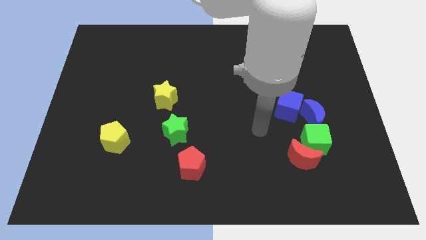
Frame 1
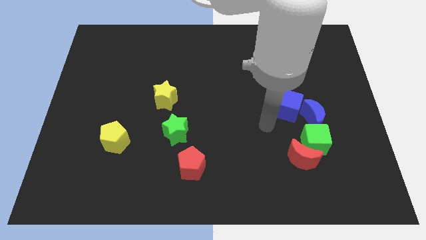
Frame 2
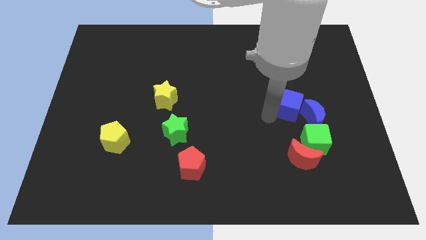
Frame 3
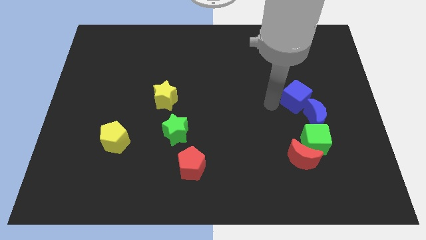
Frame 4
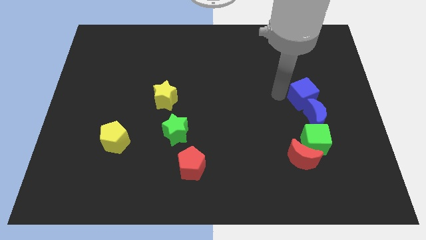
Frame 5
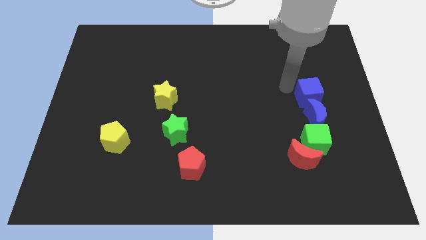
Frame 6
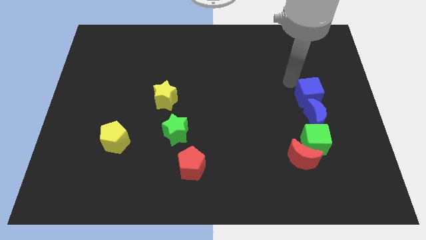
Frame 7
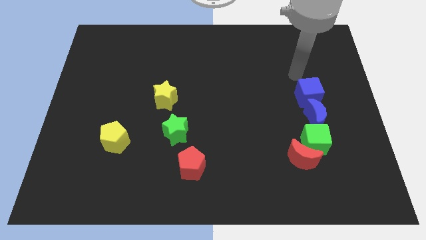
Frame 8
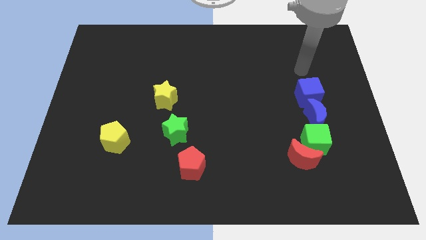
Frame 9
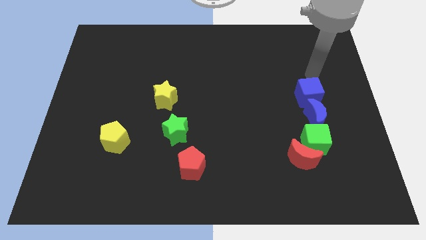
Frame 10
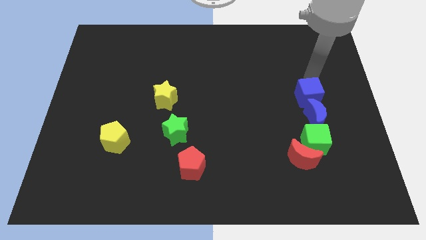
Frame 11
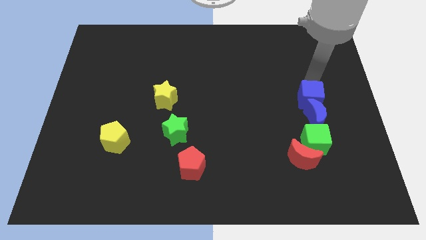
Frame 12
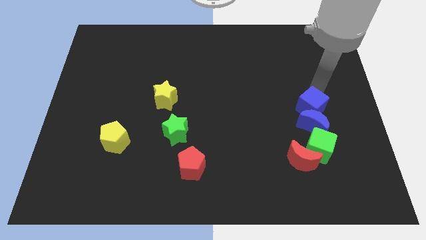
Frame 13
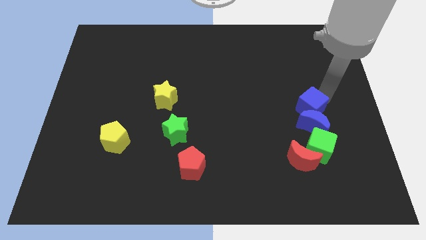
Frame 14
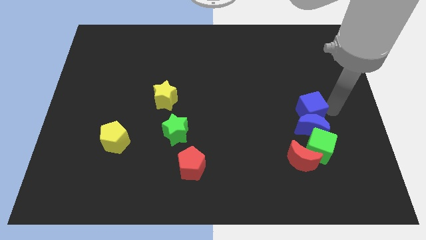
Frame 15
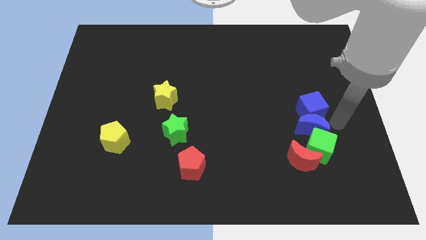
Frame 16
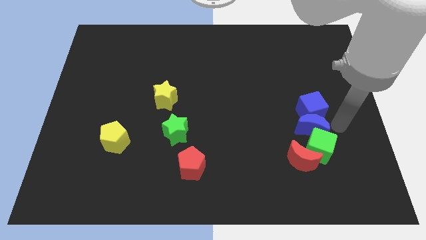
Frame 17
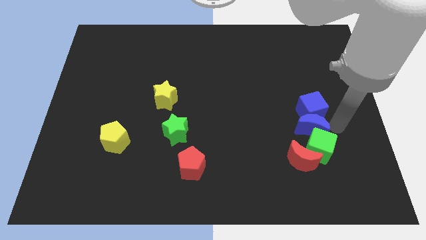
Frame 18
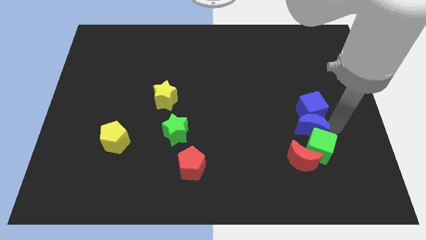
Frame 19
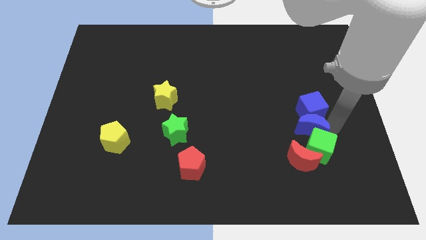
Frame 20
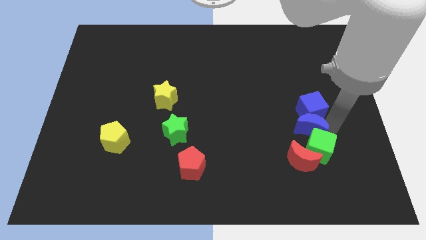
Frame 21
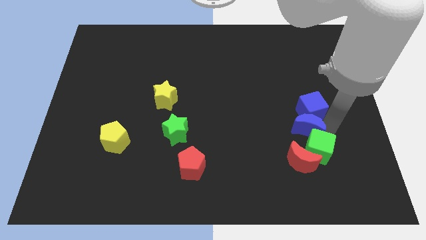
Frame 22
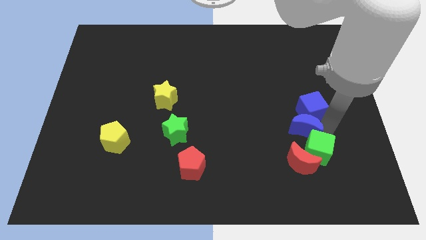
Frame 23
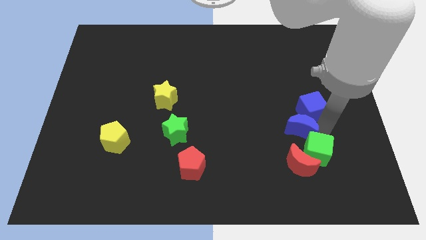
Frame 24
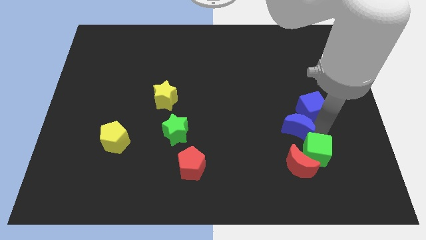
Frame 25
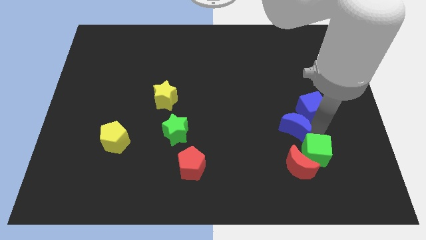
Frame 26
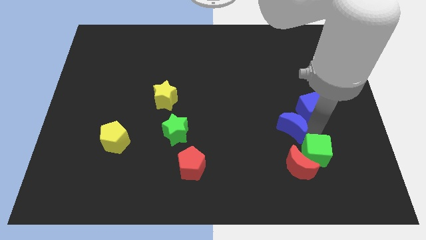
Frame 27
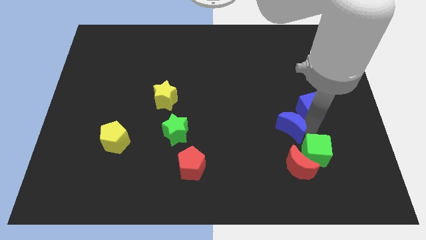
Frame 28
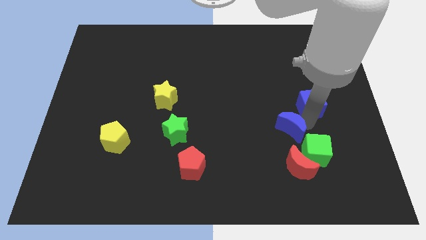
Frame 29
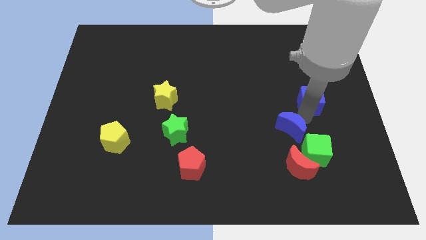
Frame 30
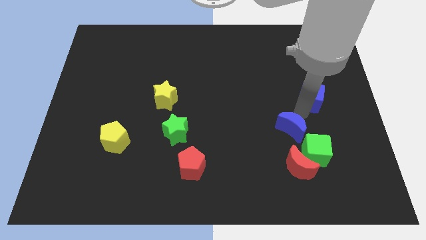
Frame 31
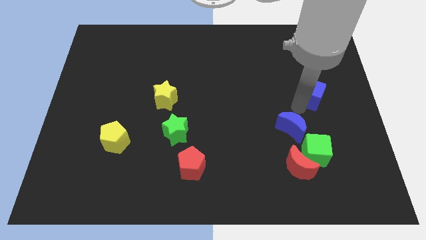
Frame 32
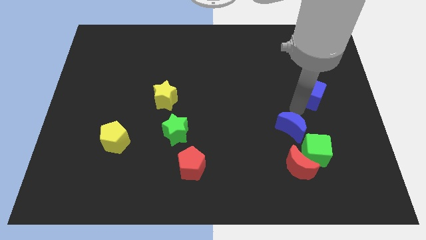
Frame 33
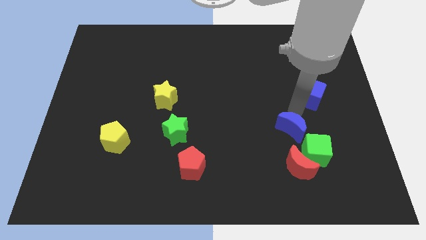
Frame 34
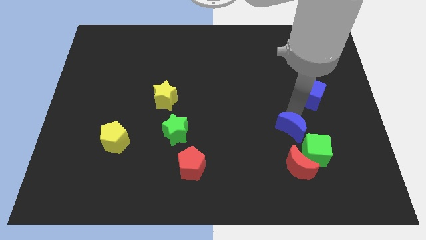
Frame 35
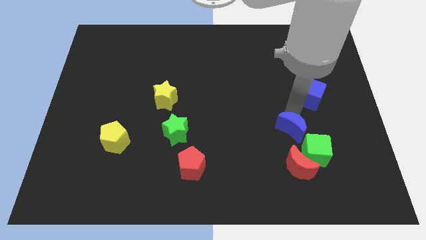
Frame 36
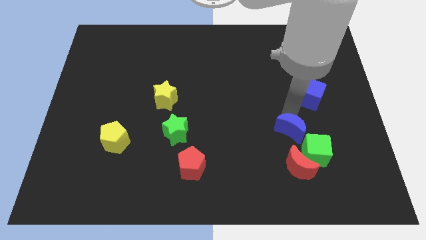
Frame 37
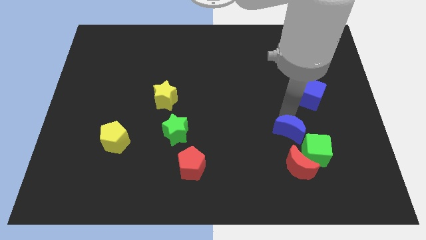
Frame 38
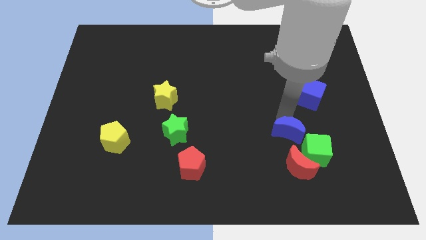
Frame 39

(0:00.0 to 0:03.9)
move the blue moon down and then to the left a little

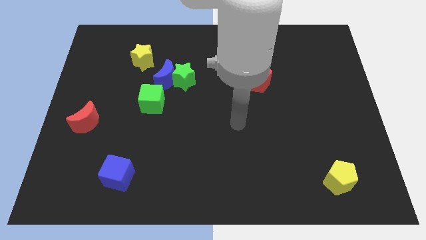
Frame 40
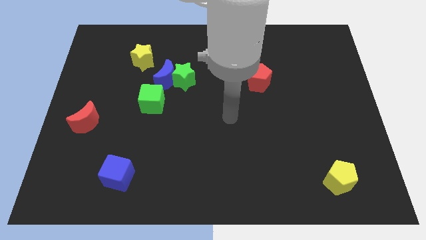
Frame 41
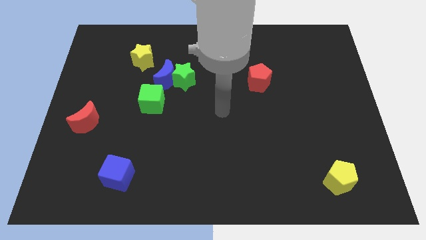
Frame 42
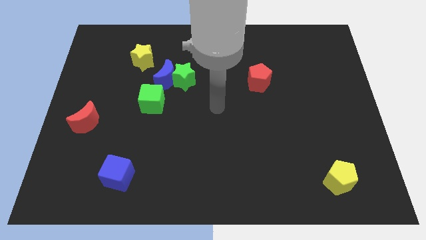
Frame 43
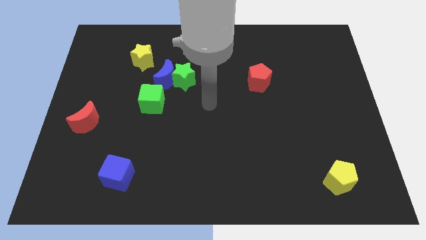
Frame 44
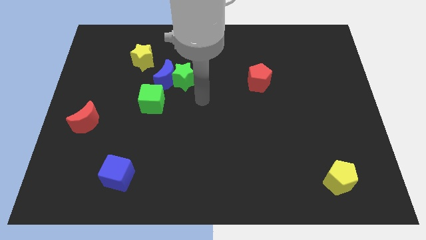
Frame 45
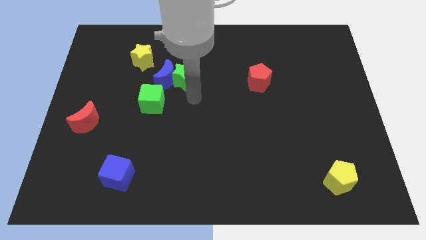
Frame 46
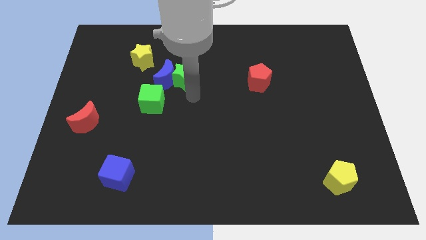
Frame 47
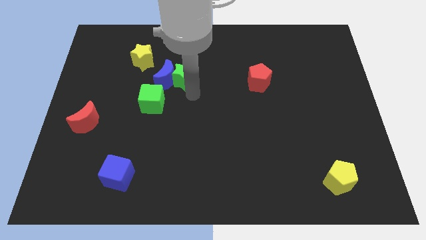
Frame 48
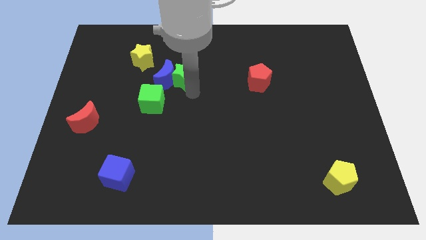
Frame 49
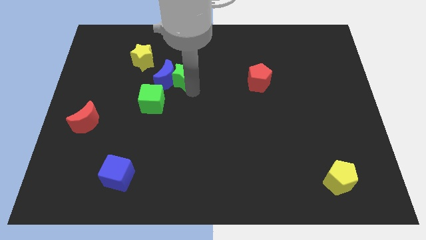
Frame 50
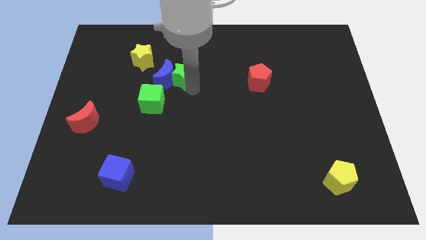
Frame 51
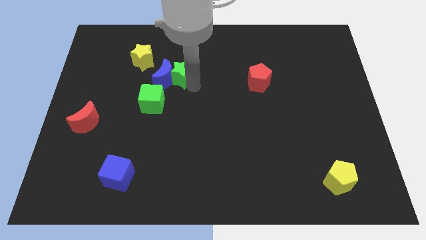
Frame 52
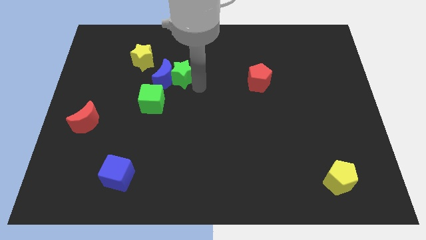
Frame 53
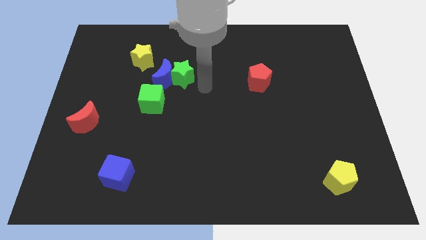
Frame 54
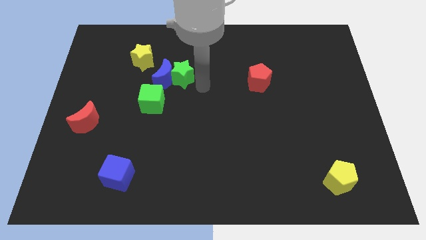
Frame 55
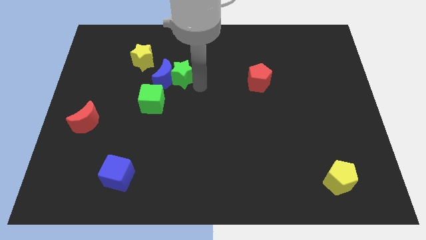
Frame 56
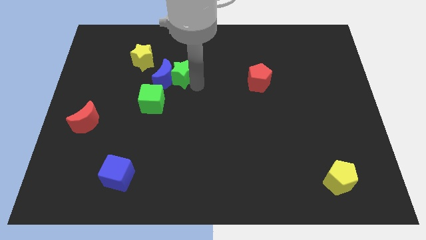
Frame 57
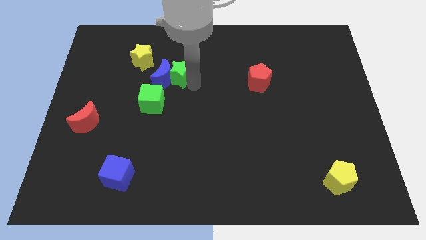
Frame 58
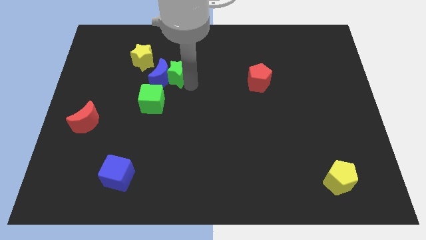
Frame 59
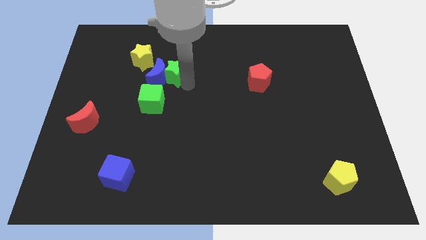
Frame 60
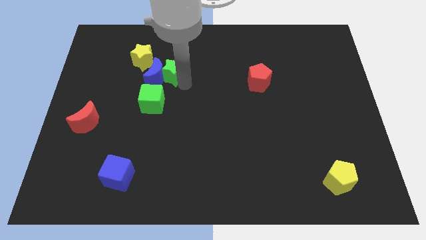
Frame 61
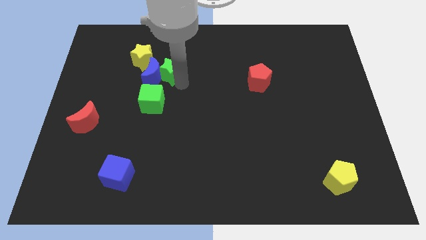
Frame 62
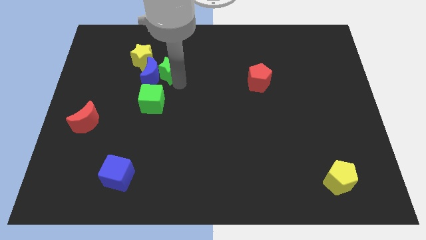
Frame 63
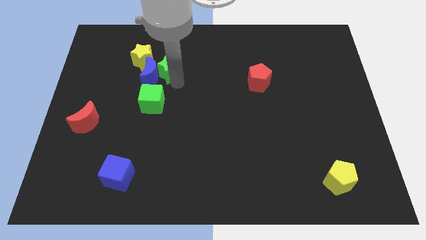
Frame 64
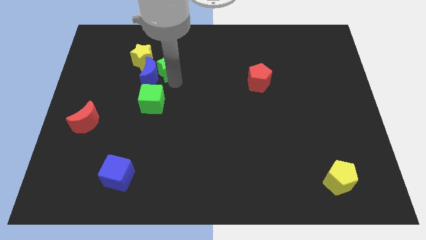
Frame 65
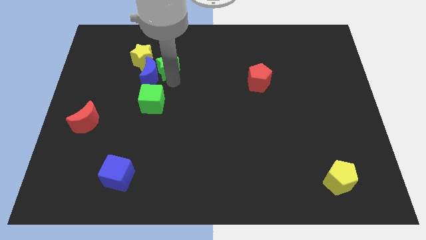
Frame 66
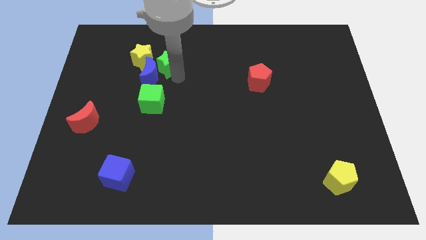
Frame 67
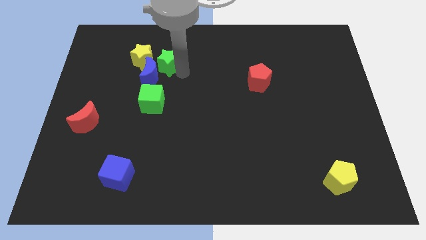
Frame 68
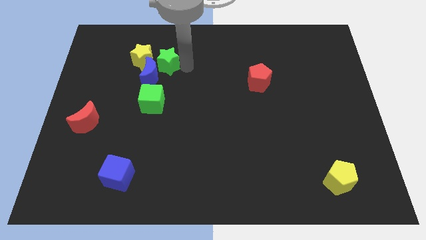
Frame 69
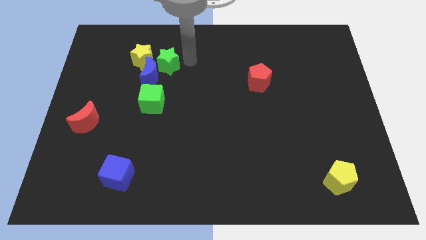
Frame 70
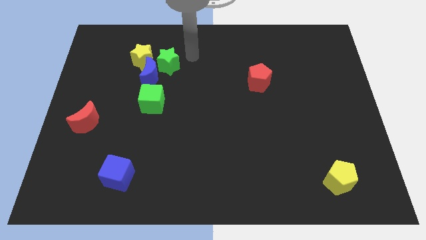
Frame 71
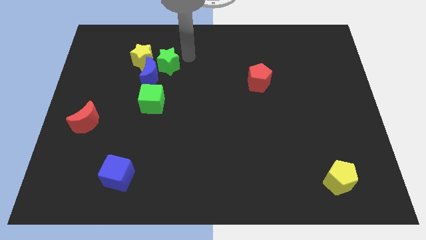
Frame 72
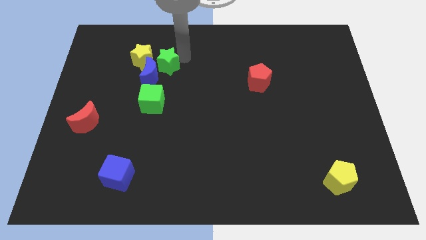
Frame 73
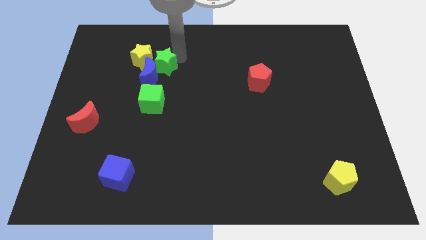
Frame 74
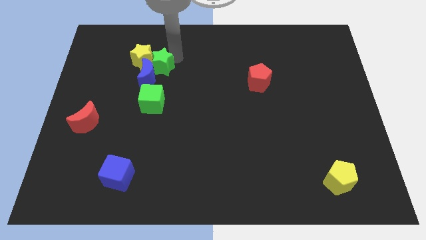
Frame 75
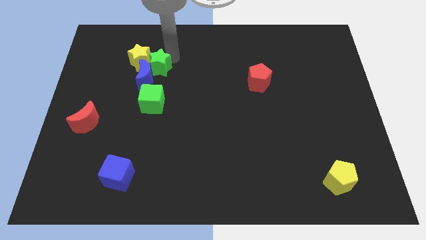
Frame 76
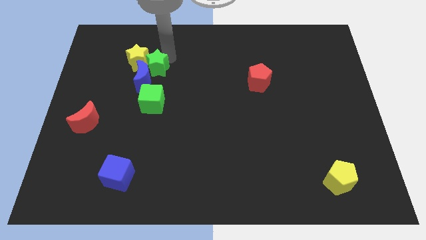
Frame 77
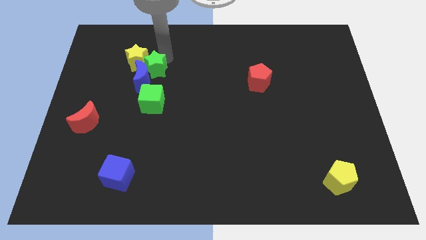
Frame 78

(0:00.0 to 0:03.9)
slightly move the green star to the left
